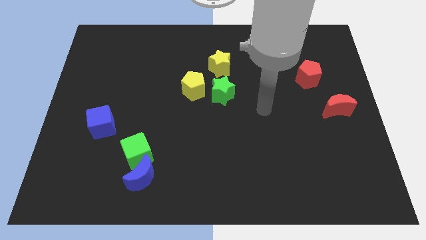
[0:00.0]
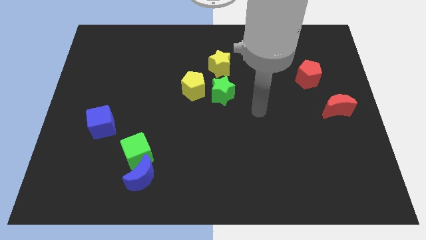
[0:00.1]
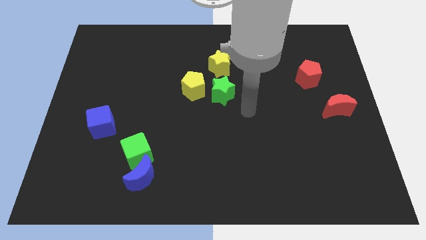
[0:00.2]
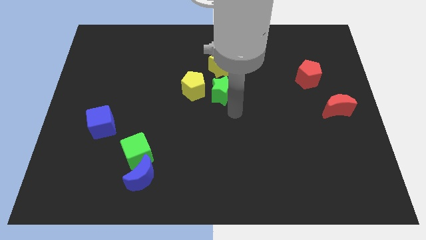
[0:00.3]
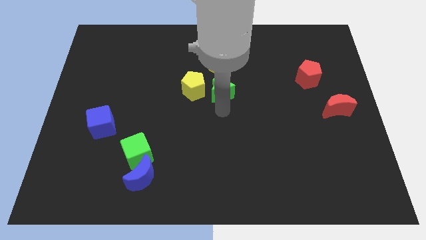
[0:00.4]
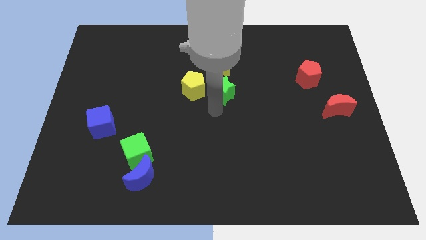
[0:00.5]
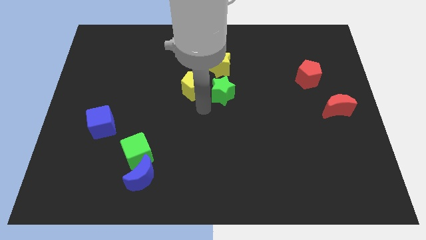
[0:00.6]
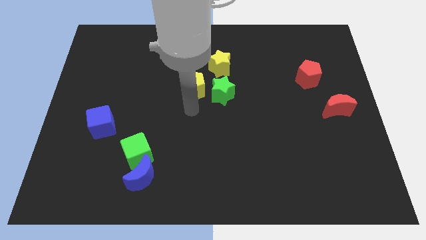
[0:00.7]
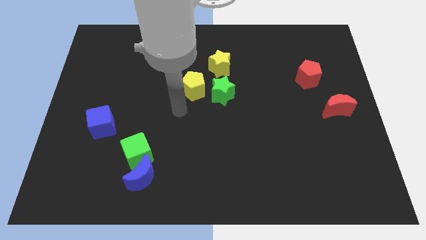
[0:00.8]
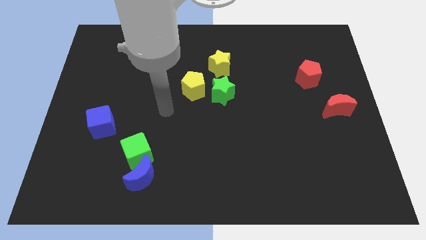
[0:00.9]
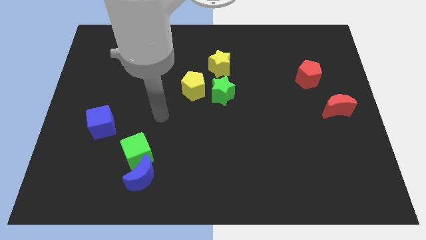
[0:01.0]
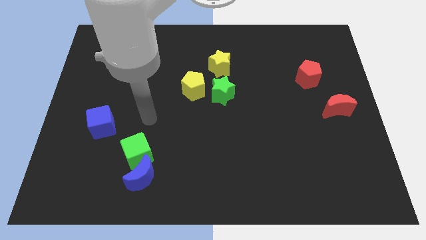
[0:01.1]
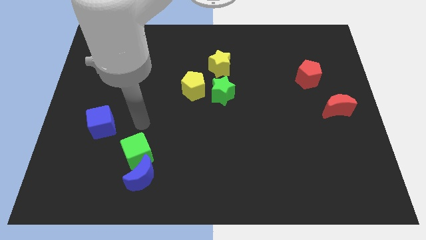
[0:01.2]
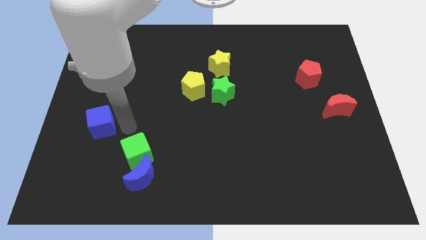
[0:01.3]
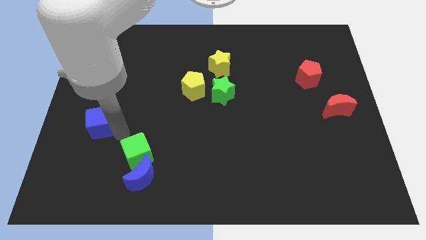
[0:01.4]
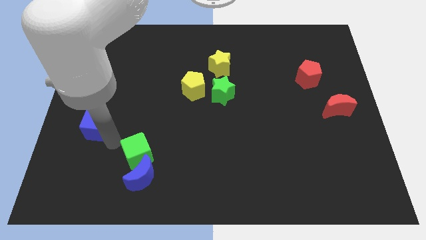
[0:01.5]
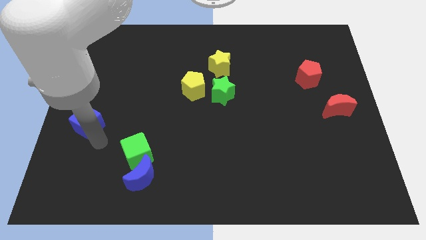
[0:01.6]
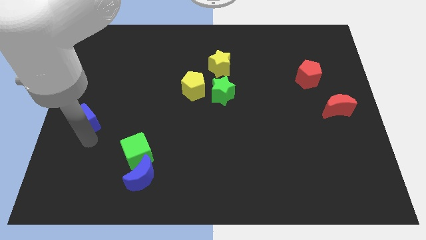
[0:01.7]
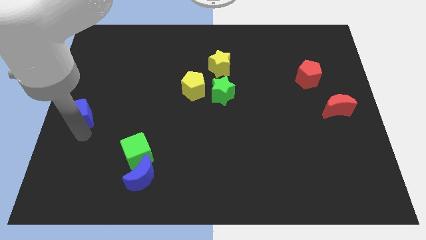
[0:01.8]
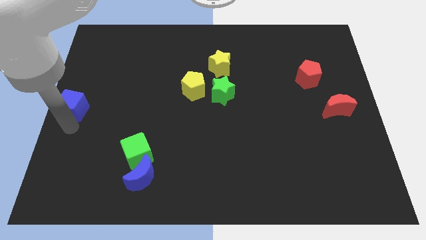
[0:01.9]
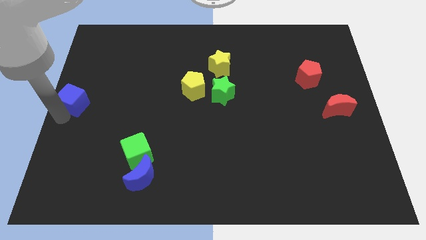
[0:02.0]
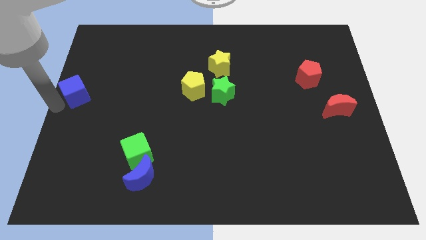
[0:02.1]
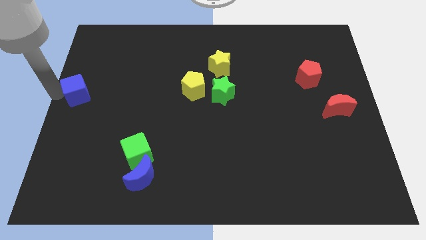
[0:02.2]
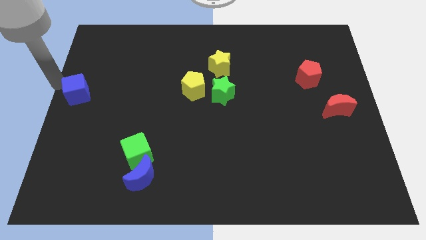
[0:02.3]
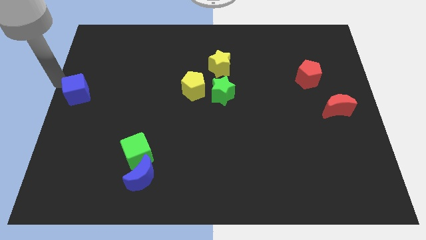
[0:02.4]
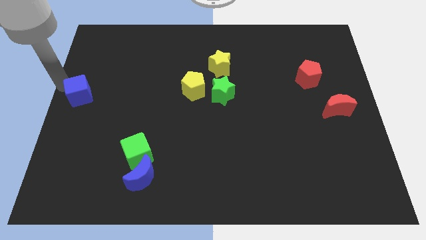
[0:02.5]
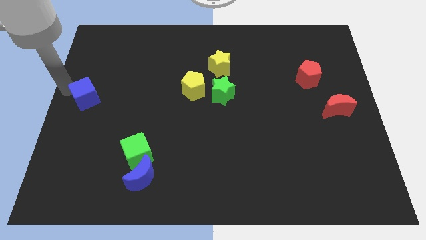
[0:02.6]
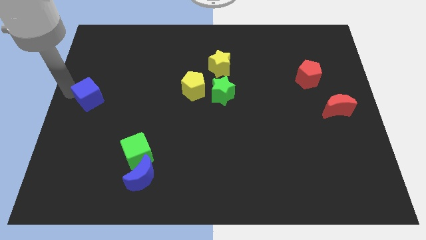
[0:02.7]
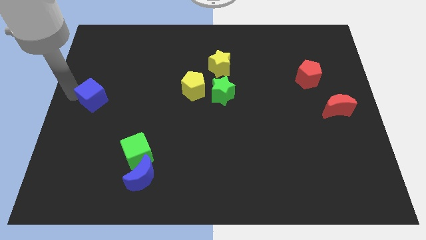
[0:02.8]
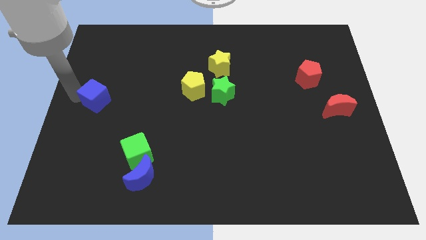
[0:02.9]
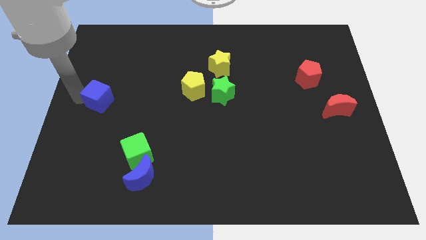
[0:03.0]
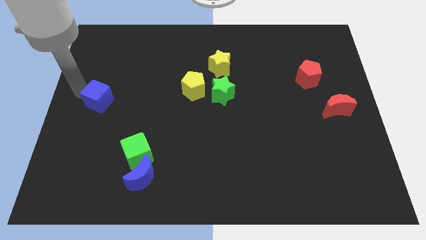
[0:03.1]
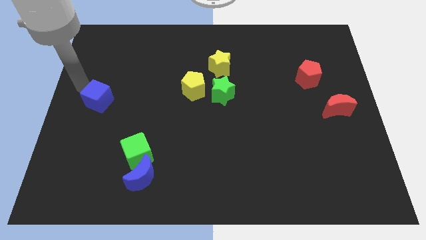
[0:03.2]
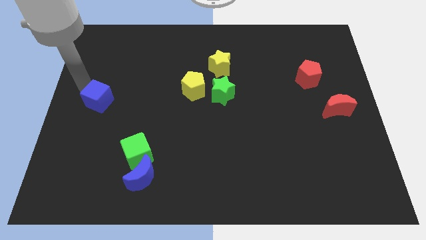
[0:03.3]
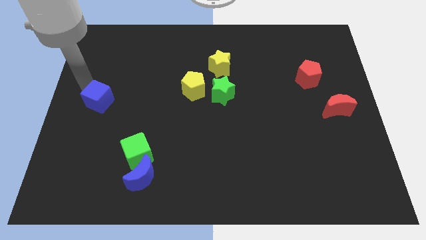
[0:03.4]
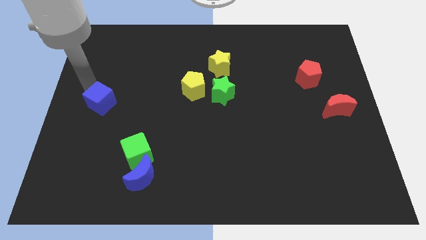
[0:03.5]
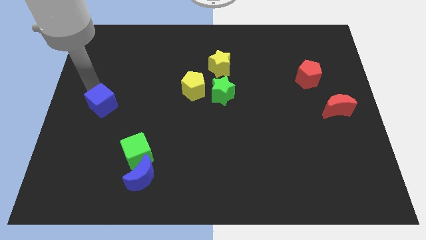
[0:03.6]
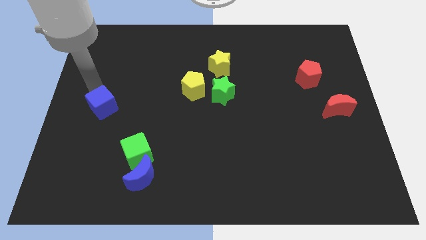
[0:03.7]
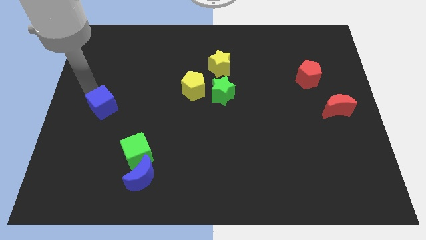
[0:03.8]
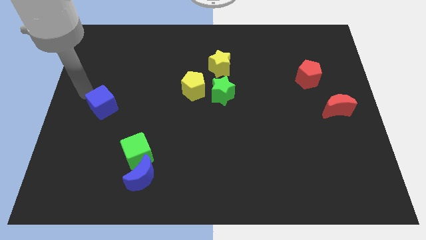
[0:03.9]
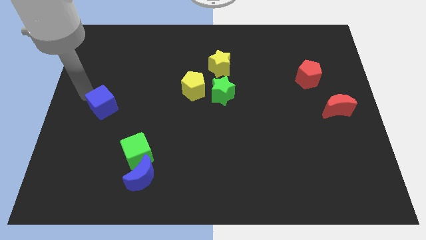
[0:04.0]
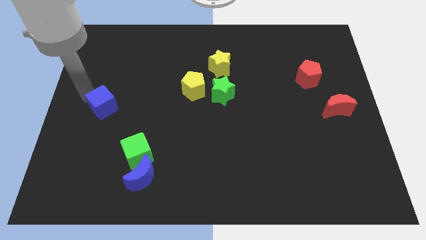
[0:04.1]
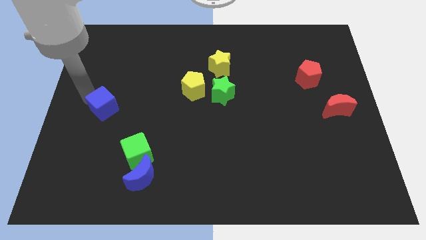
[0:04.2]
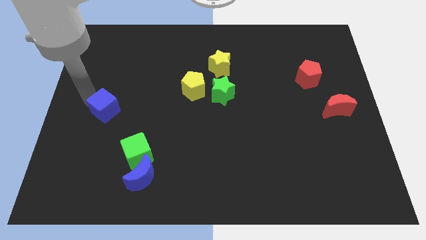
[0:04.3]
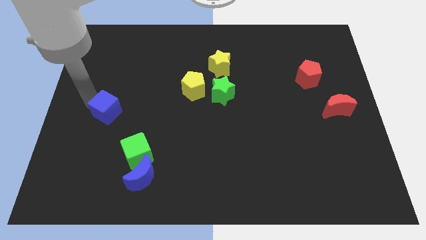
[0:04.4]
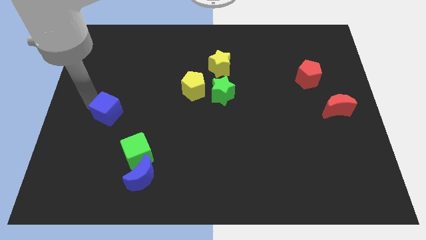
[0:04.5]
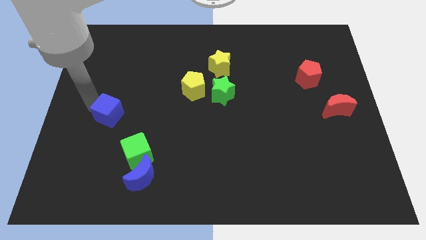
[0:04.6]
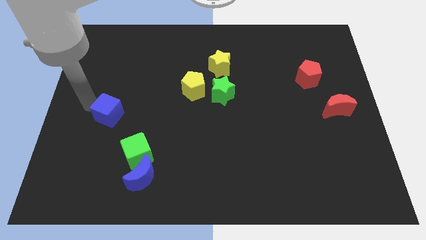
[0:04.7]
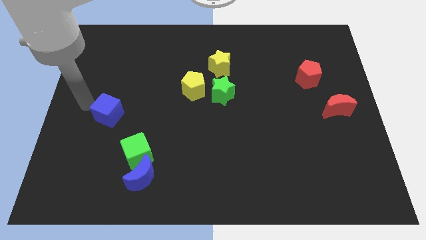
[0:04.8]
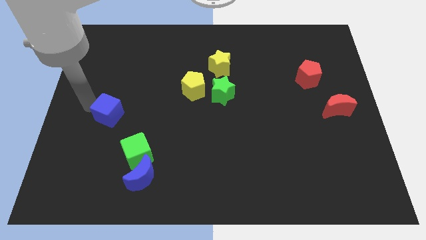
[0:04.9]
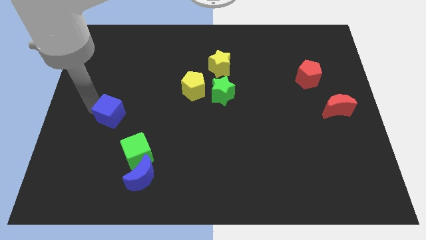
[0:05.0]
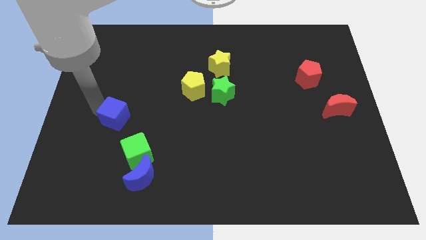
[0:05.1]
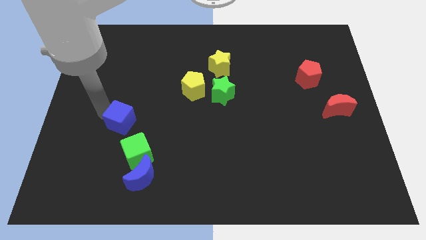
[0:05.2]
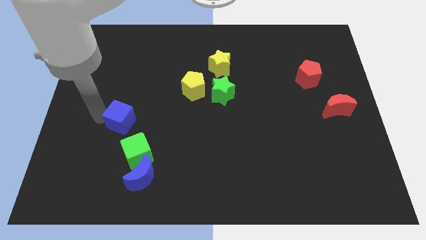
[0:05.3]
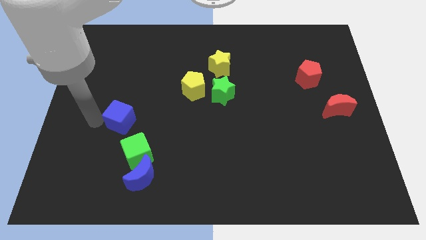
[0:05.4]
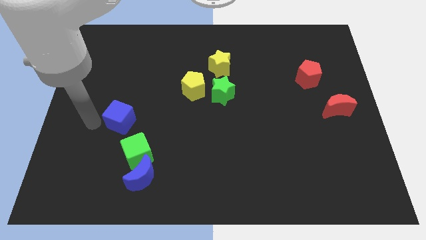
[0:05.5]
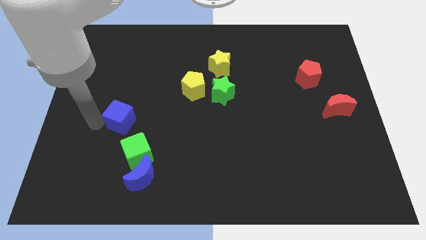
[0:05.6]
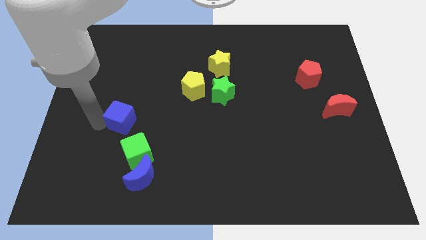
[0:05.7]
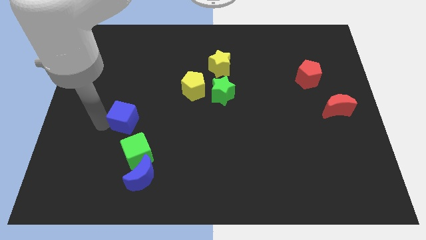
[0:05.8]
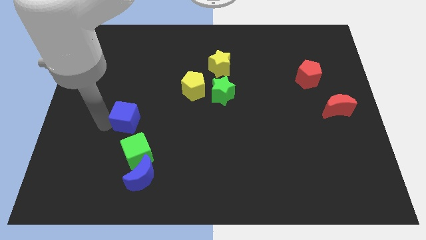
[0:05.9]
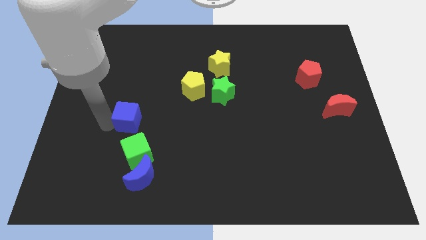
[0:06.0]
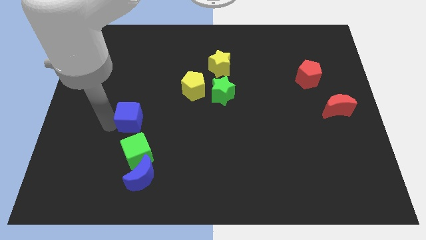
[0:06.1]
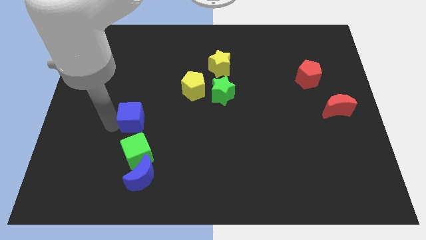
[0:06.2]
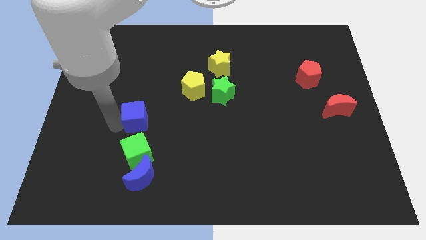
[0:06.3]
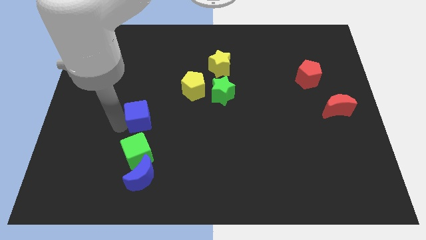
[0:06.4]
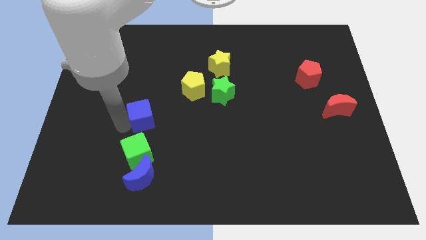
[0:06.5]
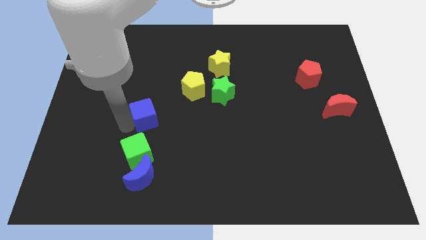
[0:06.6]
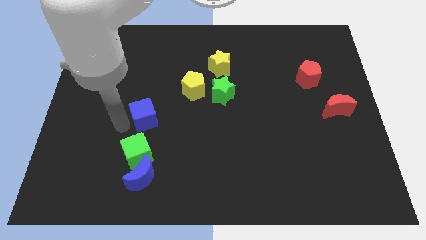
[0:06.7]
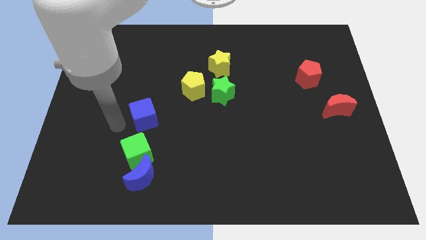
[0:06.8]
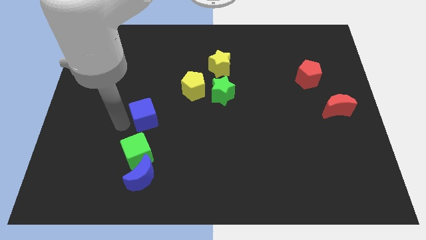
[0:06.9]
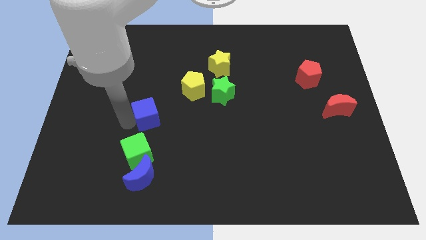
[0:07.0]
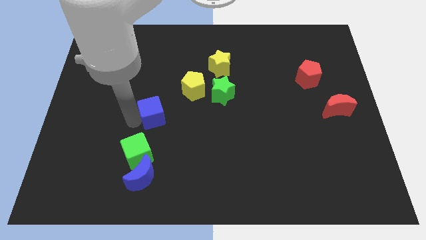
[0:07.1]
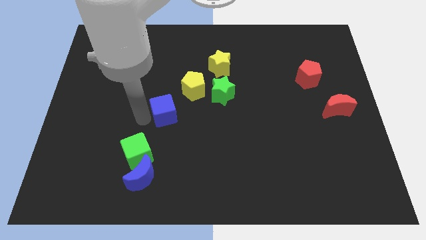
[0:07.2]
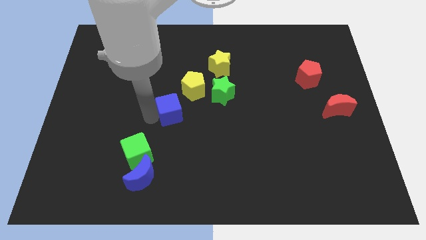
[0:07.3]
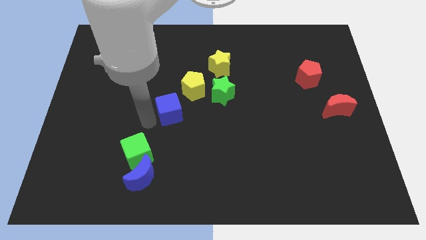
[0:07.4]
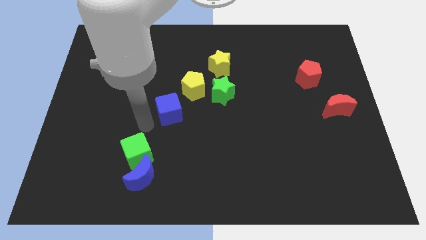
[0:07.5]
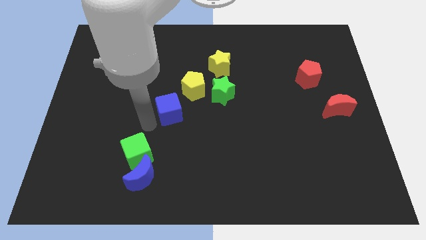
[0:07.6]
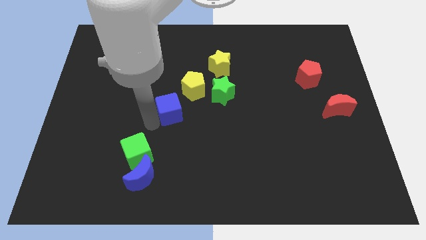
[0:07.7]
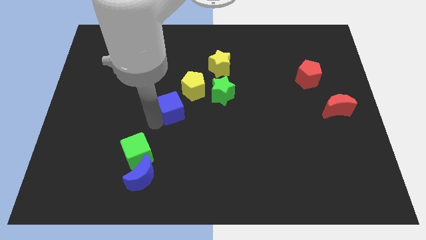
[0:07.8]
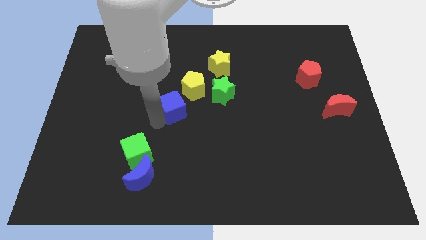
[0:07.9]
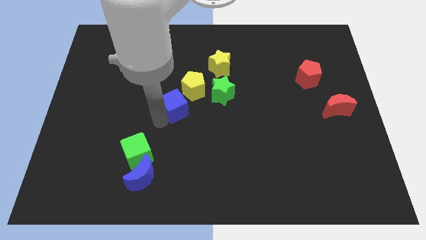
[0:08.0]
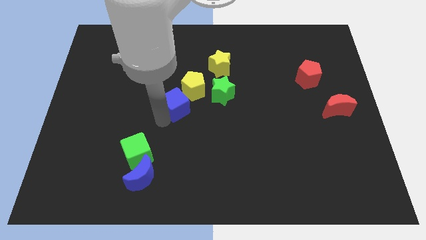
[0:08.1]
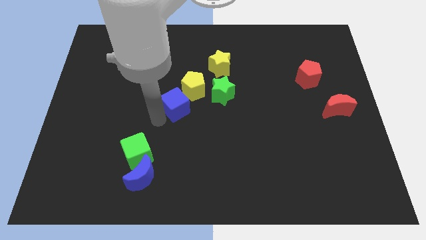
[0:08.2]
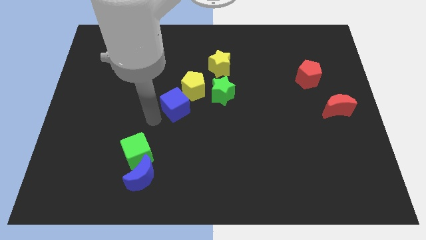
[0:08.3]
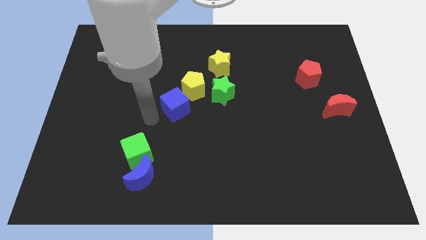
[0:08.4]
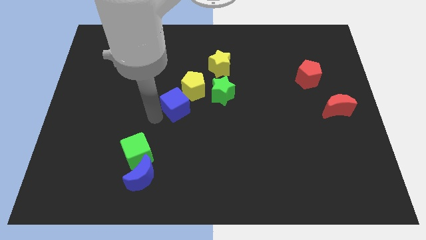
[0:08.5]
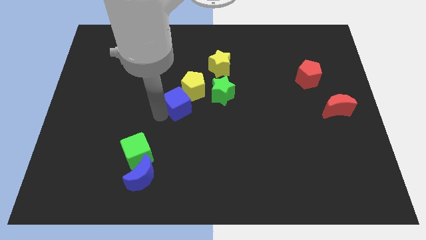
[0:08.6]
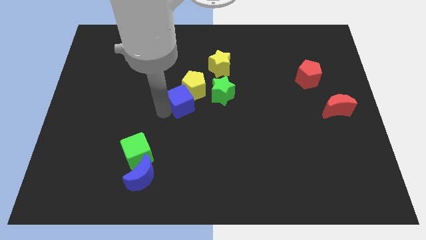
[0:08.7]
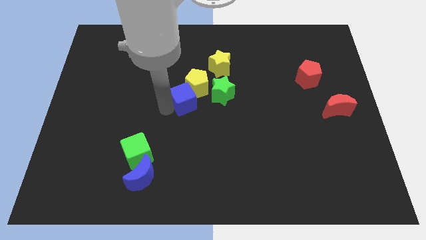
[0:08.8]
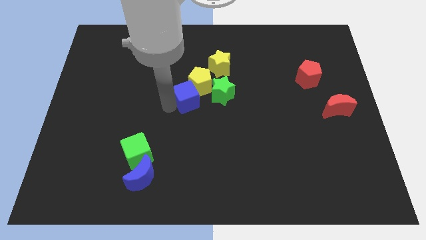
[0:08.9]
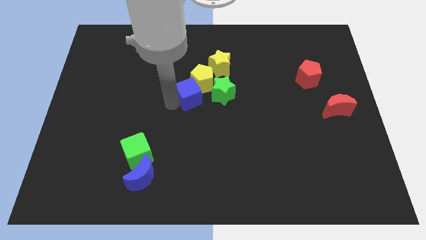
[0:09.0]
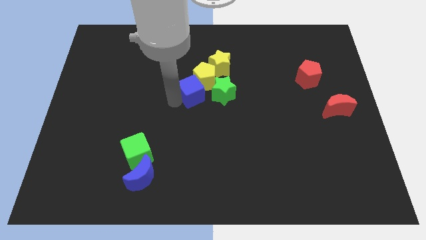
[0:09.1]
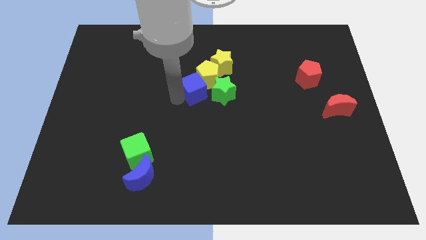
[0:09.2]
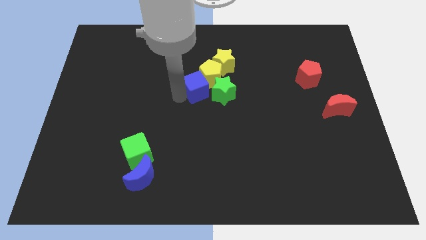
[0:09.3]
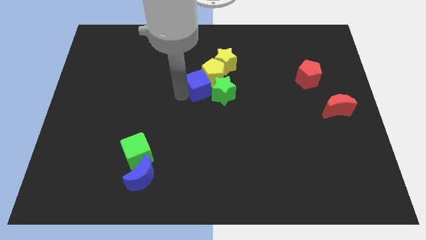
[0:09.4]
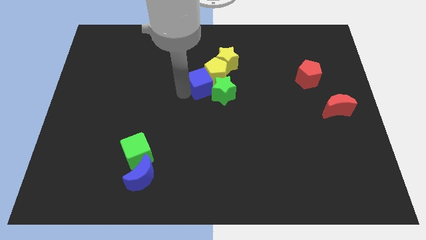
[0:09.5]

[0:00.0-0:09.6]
move the blue cube close to the green star
